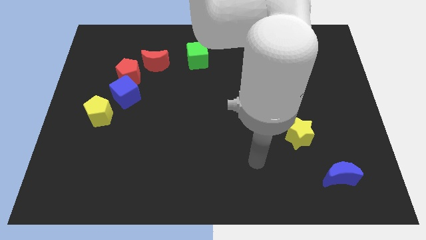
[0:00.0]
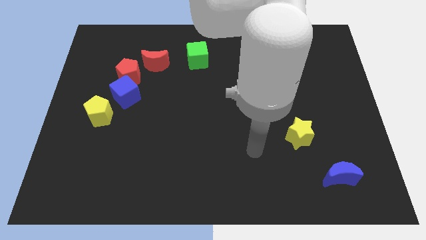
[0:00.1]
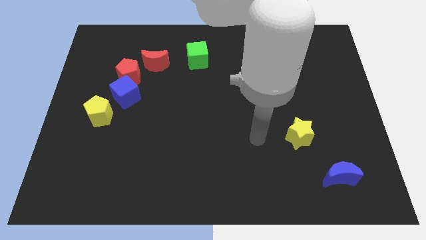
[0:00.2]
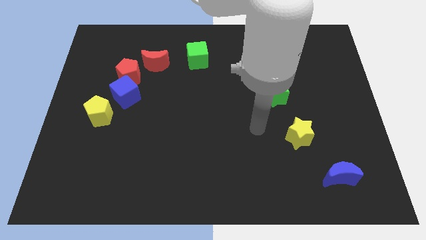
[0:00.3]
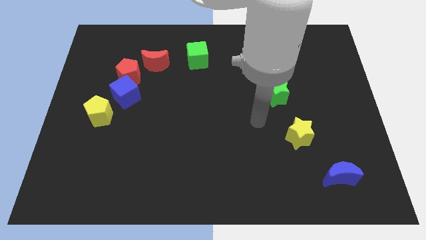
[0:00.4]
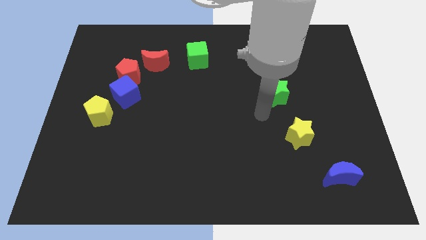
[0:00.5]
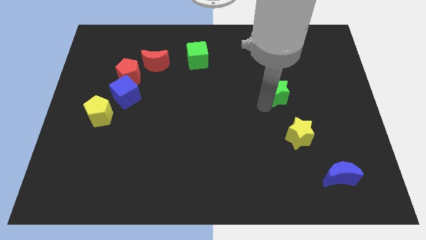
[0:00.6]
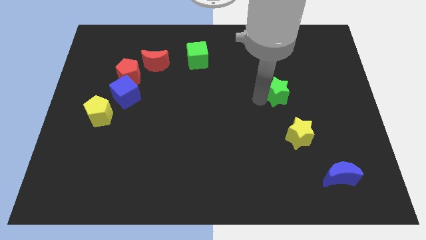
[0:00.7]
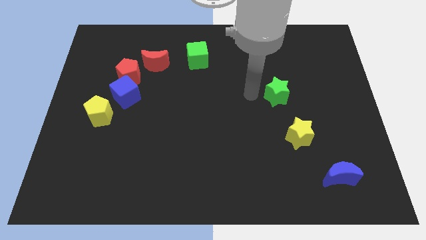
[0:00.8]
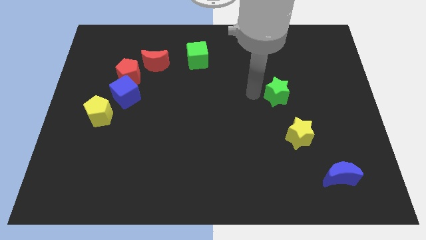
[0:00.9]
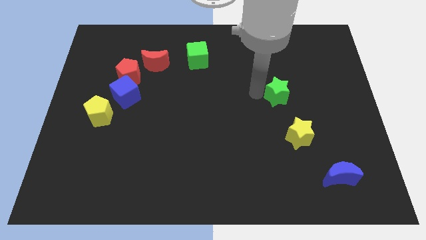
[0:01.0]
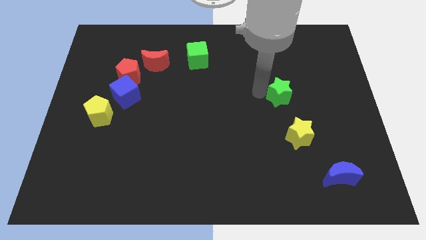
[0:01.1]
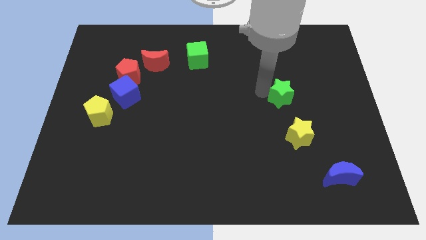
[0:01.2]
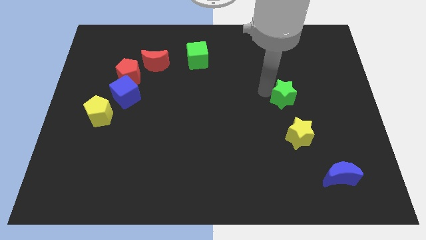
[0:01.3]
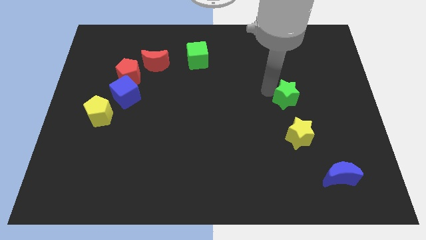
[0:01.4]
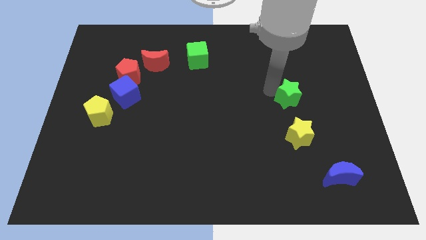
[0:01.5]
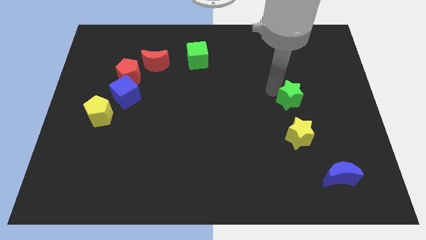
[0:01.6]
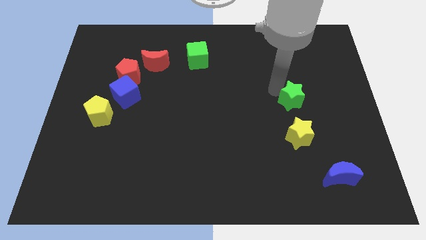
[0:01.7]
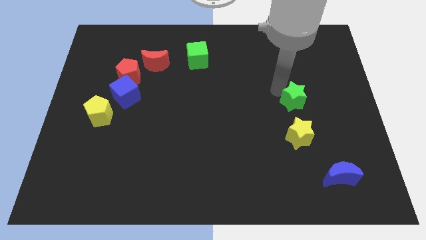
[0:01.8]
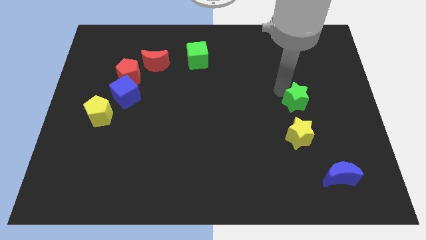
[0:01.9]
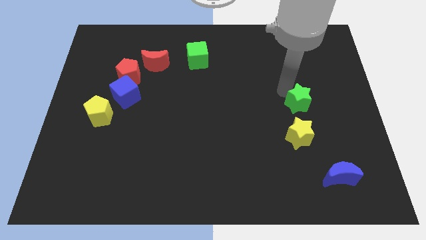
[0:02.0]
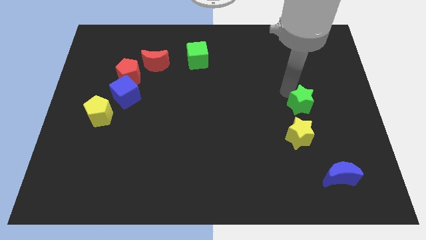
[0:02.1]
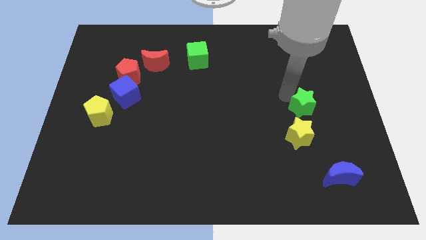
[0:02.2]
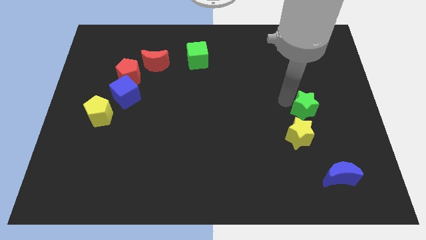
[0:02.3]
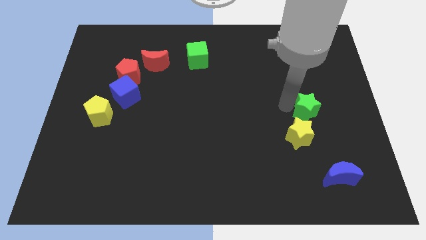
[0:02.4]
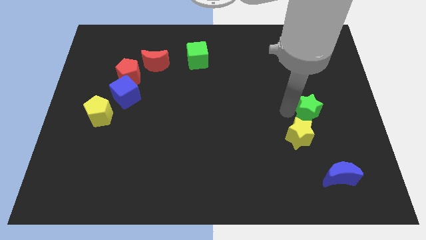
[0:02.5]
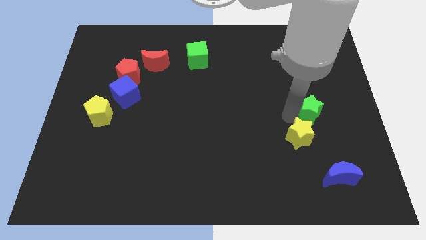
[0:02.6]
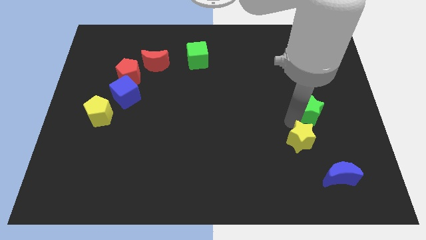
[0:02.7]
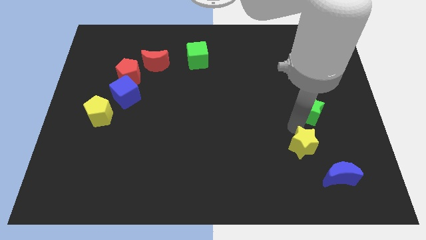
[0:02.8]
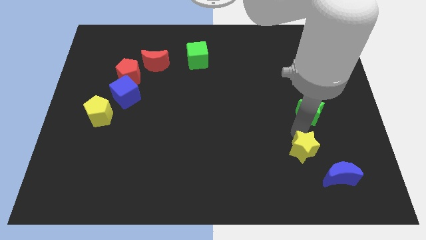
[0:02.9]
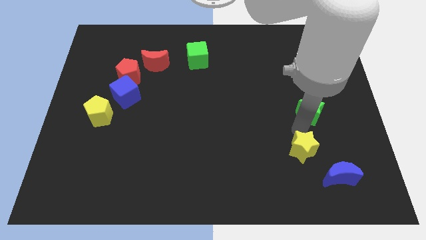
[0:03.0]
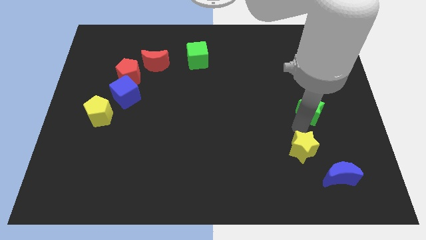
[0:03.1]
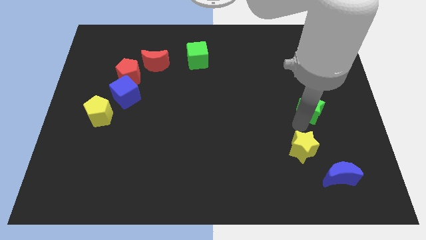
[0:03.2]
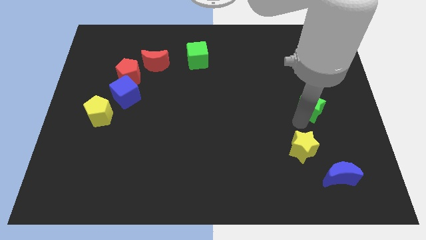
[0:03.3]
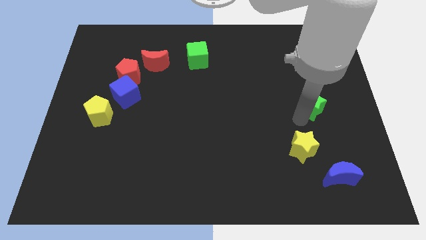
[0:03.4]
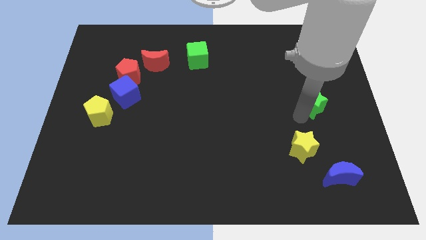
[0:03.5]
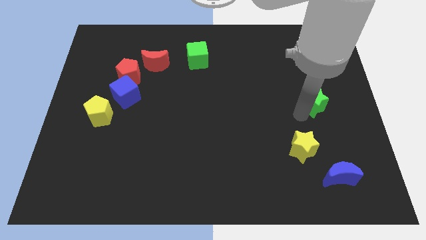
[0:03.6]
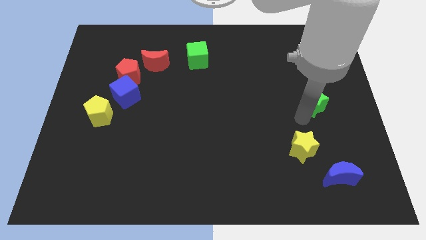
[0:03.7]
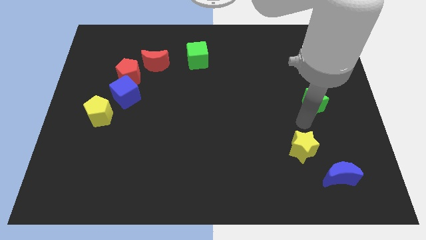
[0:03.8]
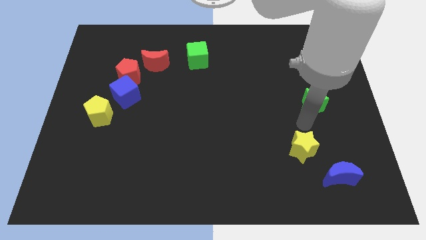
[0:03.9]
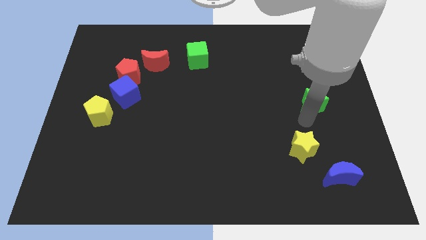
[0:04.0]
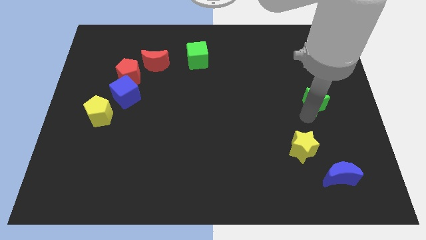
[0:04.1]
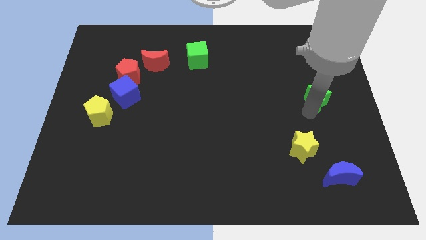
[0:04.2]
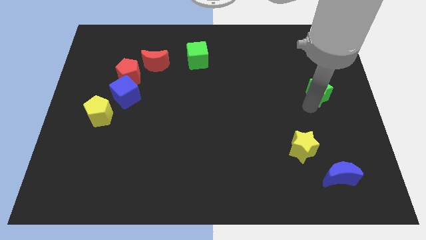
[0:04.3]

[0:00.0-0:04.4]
push the green star to the right side of the board

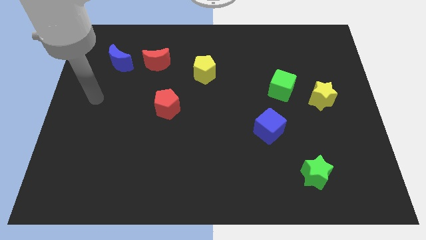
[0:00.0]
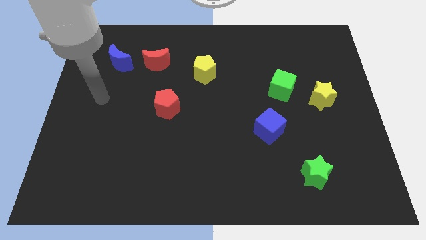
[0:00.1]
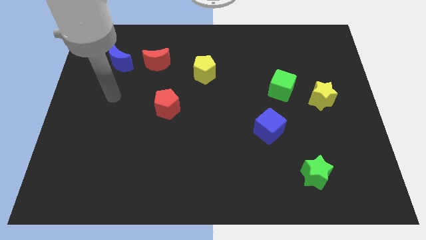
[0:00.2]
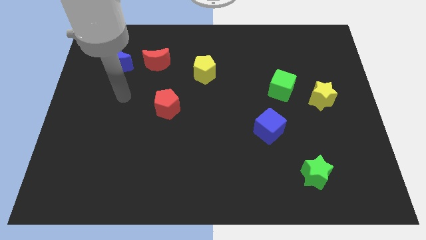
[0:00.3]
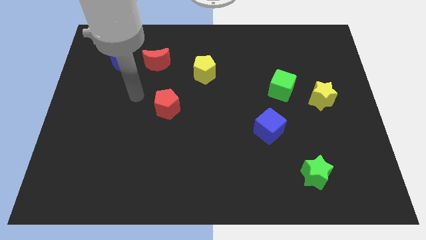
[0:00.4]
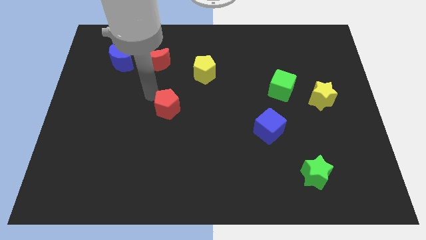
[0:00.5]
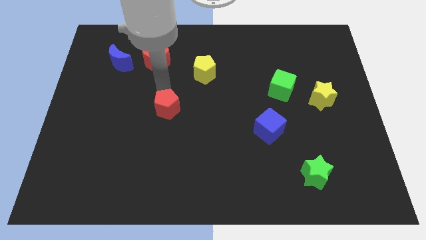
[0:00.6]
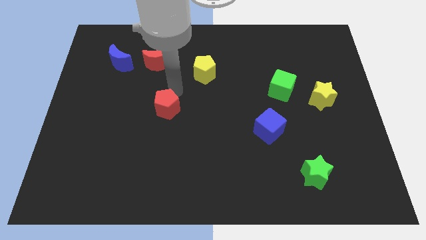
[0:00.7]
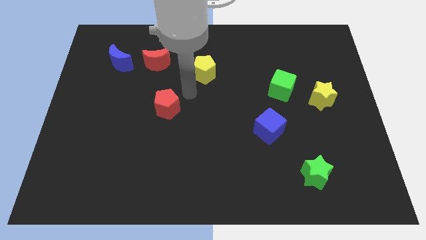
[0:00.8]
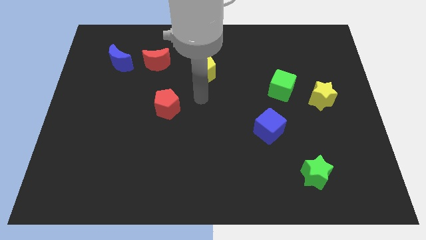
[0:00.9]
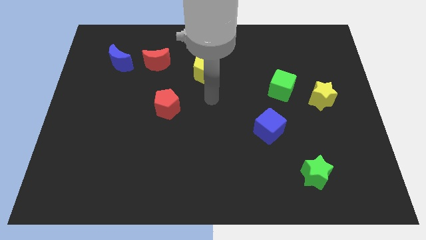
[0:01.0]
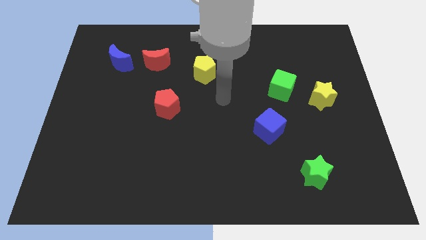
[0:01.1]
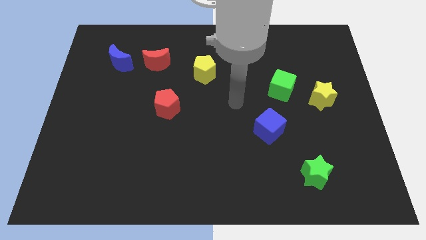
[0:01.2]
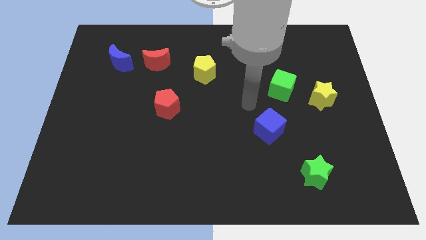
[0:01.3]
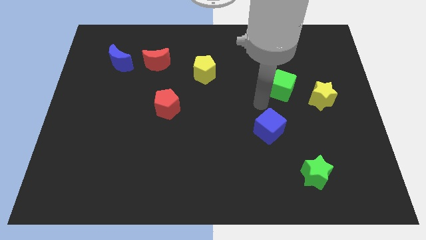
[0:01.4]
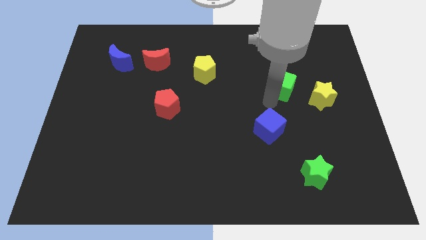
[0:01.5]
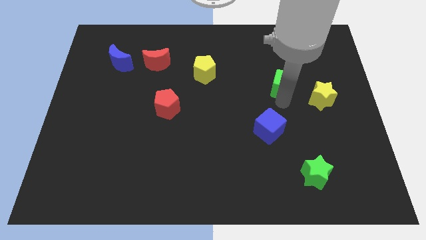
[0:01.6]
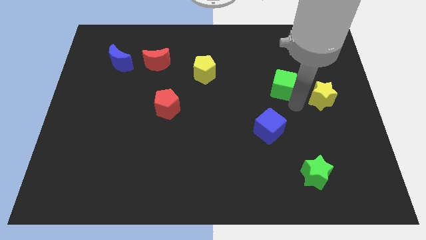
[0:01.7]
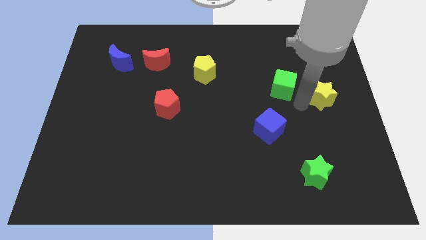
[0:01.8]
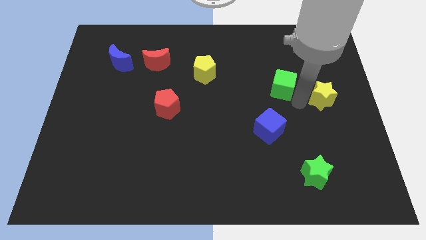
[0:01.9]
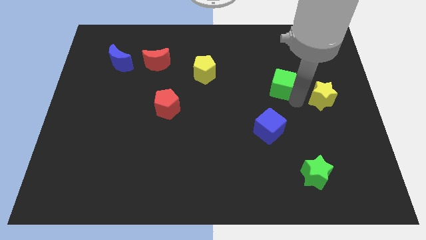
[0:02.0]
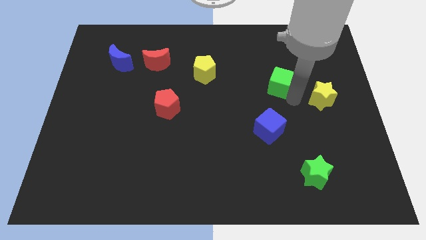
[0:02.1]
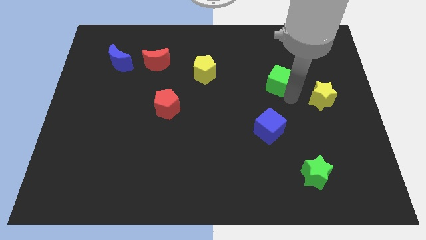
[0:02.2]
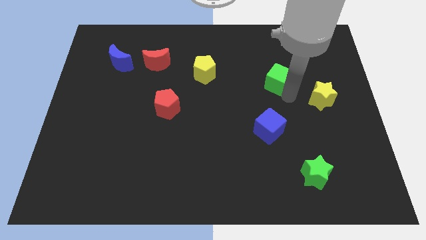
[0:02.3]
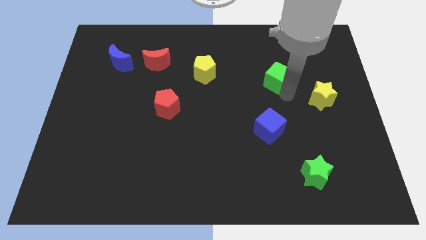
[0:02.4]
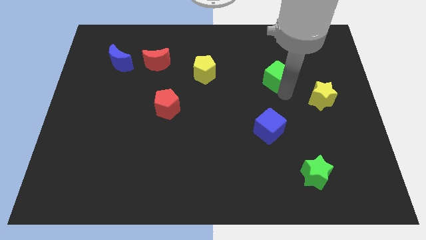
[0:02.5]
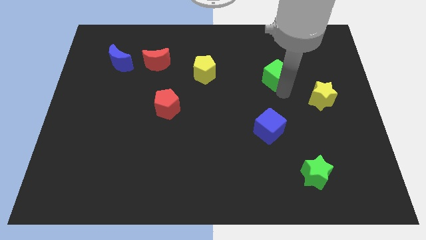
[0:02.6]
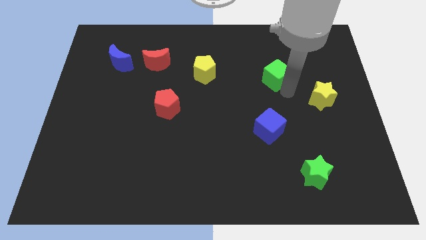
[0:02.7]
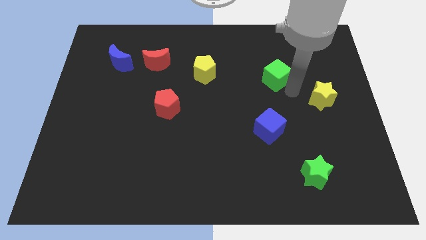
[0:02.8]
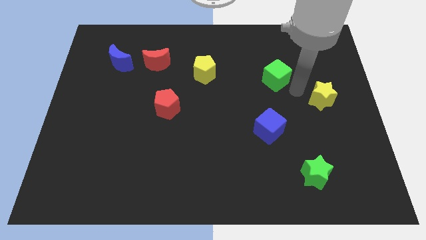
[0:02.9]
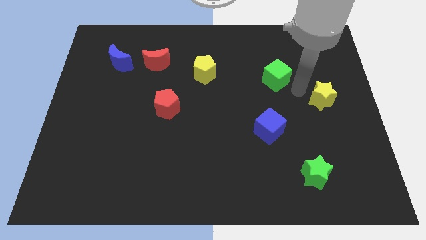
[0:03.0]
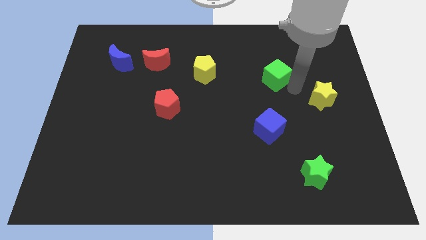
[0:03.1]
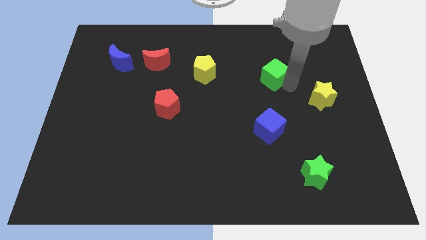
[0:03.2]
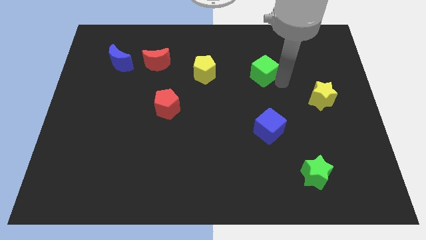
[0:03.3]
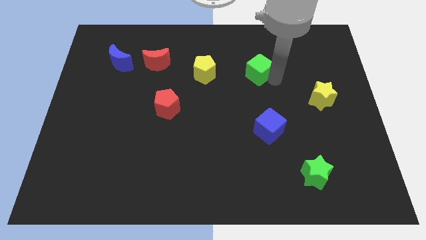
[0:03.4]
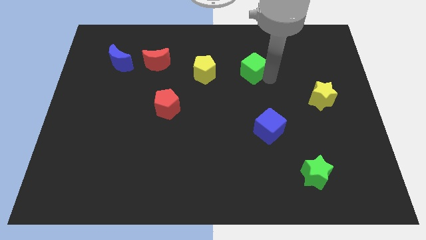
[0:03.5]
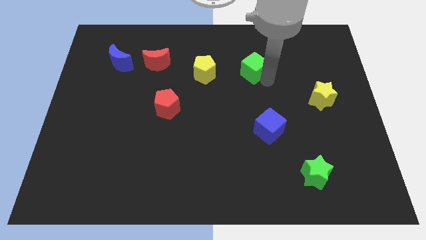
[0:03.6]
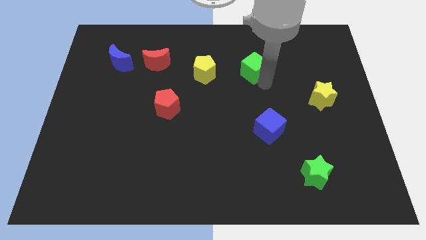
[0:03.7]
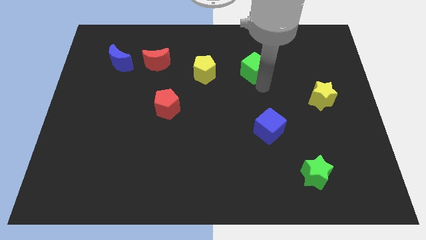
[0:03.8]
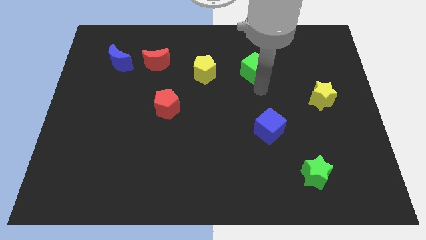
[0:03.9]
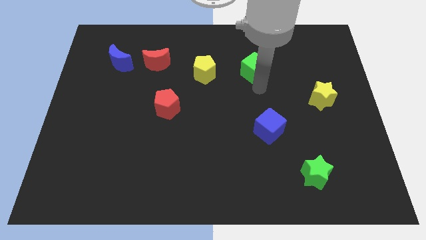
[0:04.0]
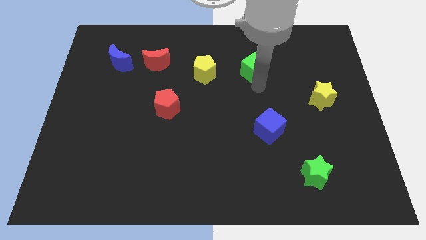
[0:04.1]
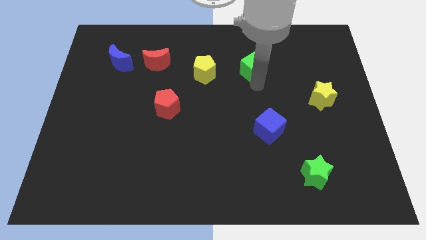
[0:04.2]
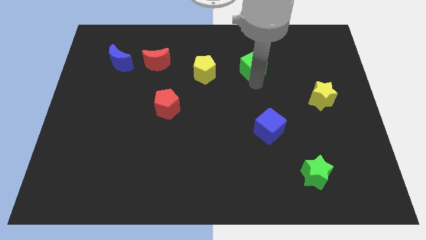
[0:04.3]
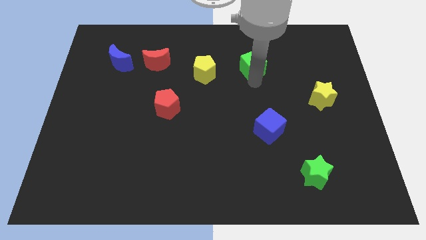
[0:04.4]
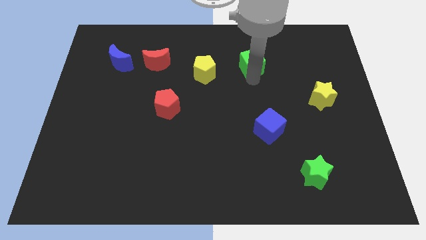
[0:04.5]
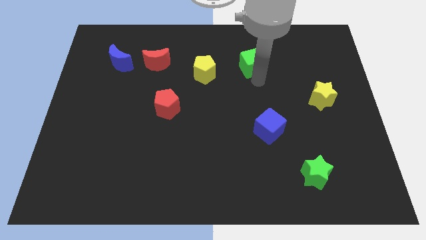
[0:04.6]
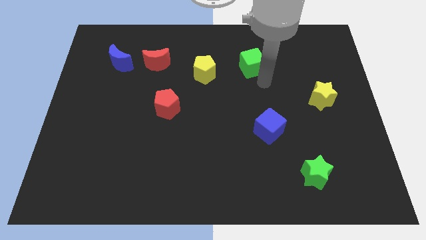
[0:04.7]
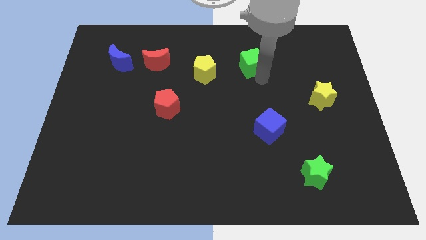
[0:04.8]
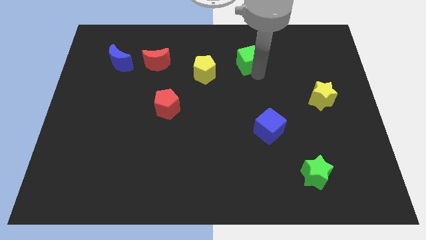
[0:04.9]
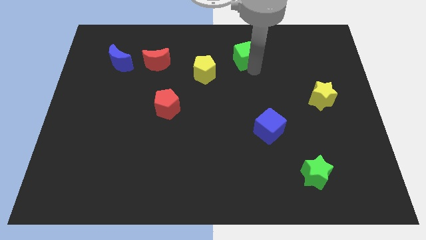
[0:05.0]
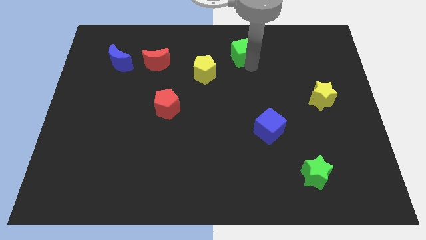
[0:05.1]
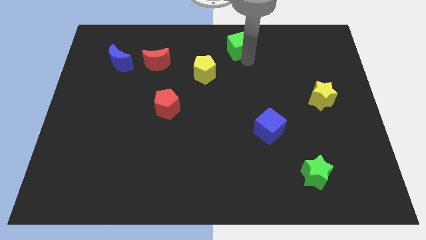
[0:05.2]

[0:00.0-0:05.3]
put the green cube to the top side
